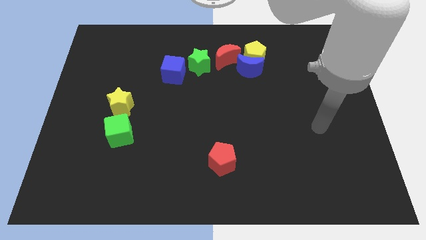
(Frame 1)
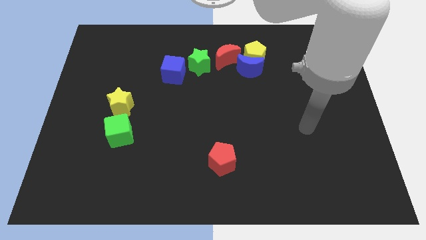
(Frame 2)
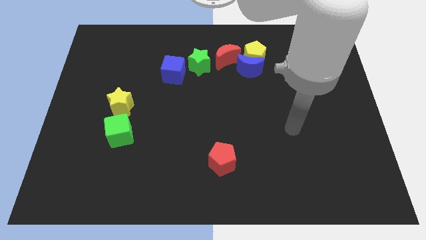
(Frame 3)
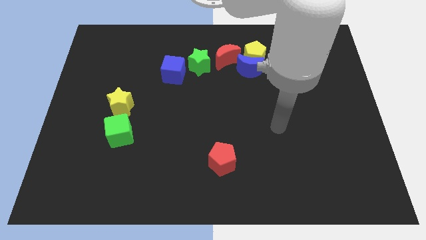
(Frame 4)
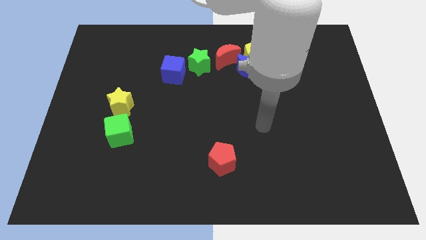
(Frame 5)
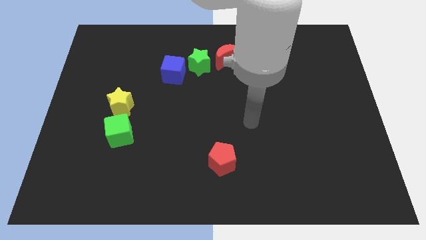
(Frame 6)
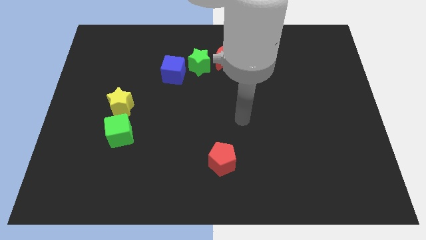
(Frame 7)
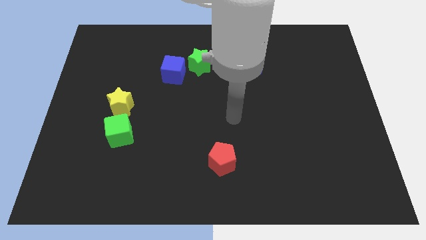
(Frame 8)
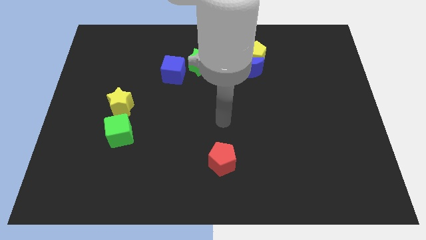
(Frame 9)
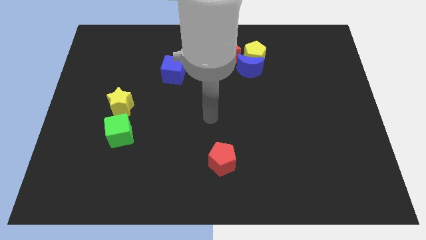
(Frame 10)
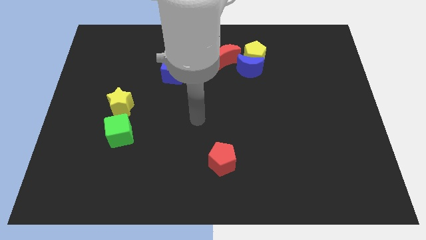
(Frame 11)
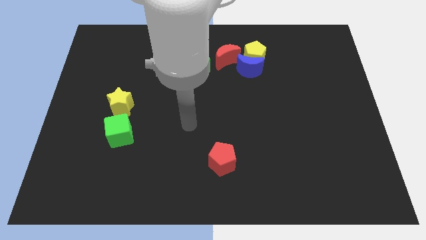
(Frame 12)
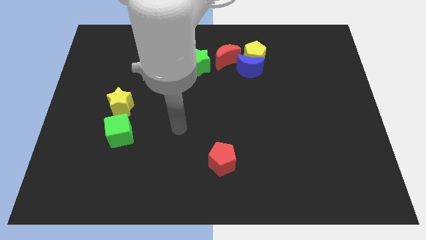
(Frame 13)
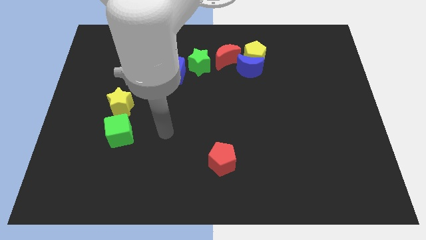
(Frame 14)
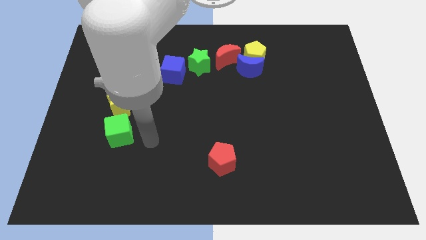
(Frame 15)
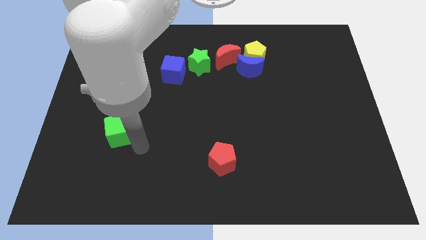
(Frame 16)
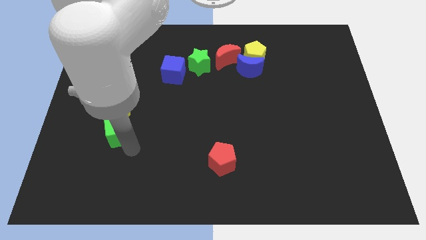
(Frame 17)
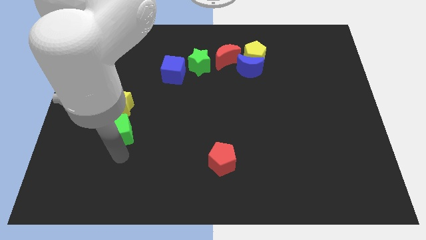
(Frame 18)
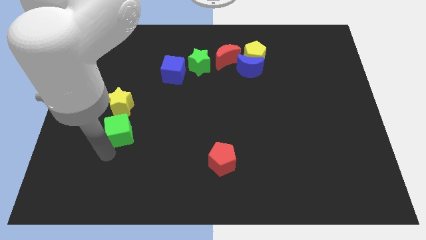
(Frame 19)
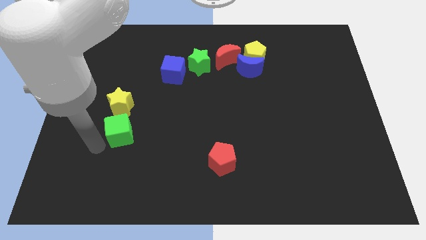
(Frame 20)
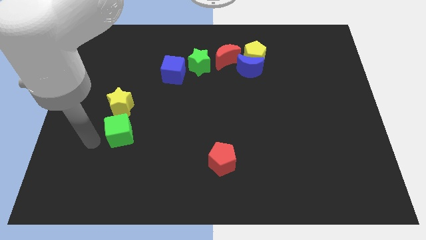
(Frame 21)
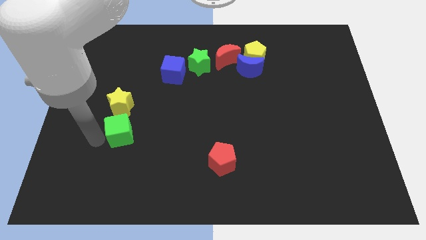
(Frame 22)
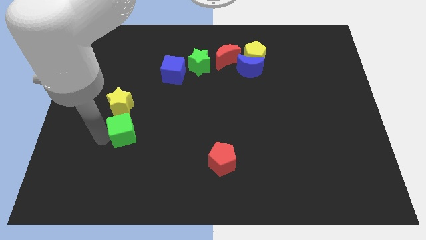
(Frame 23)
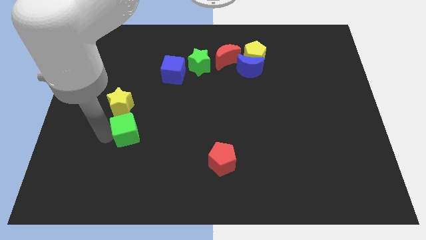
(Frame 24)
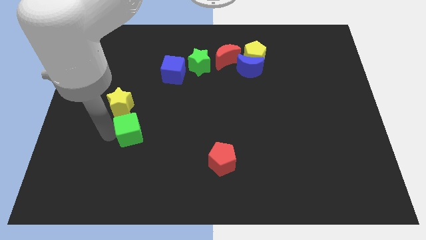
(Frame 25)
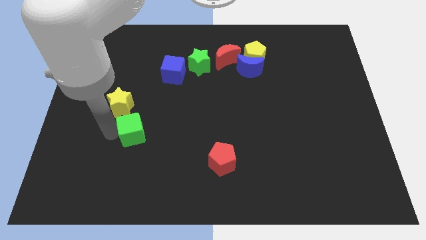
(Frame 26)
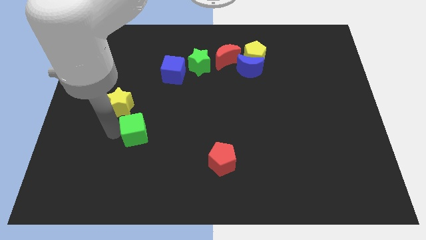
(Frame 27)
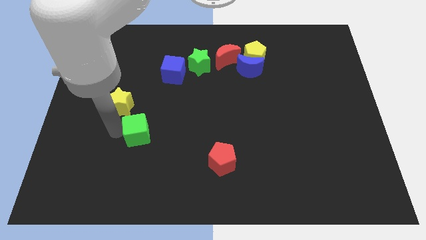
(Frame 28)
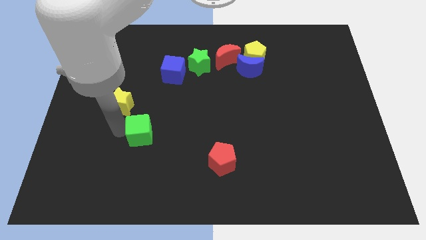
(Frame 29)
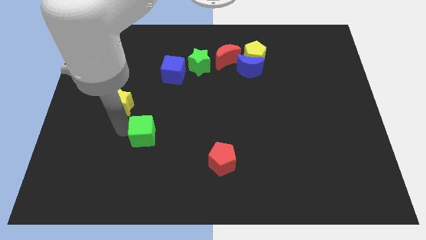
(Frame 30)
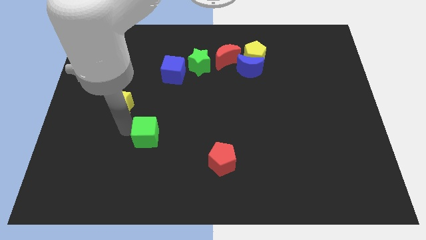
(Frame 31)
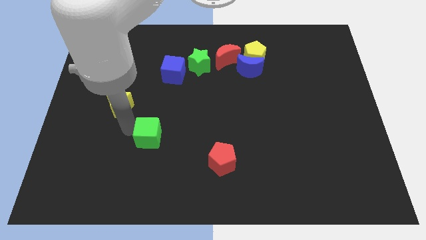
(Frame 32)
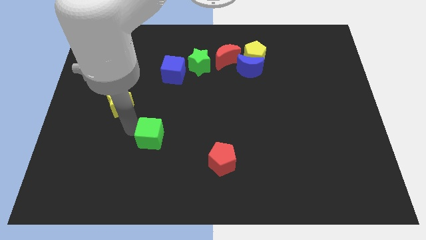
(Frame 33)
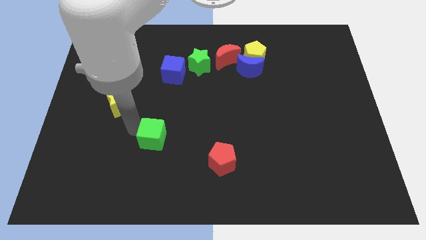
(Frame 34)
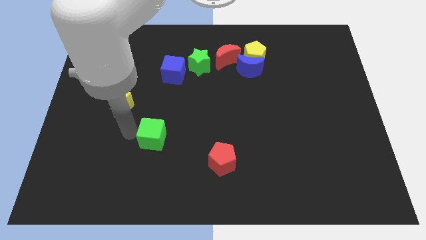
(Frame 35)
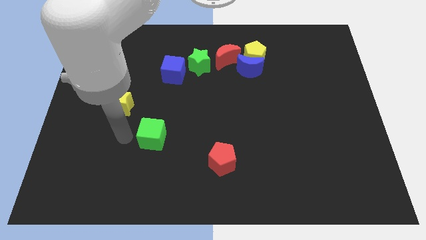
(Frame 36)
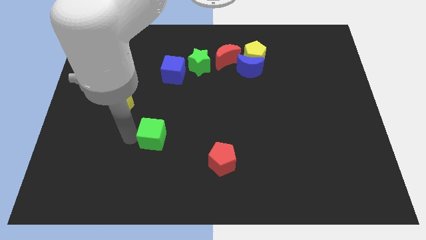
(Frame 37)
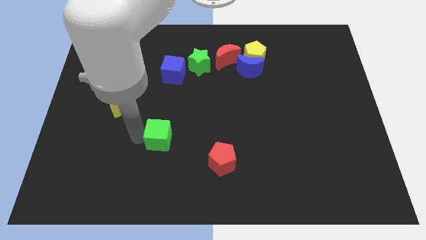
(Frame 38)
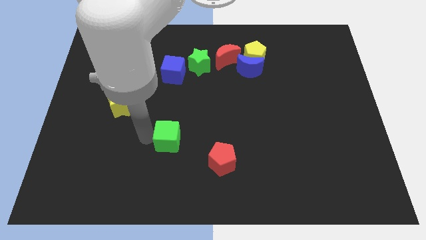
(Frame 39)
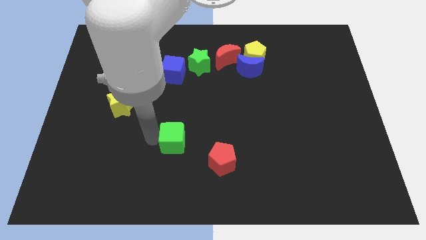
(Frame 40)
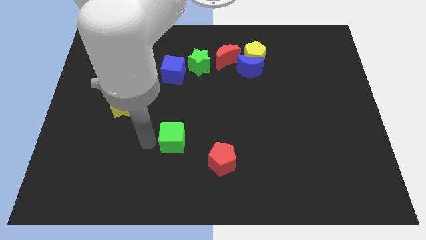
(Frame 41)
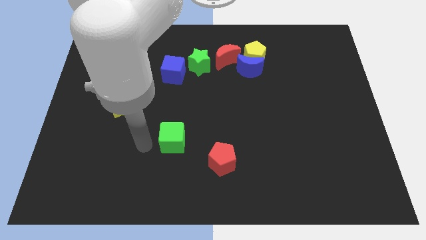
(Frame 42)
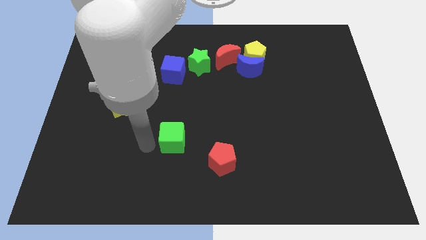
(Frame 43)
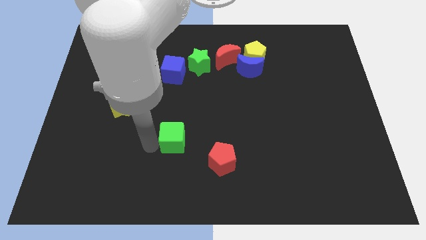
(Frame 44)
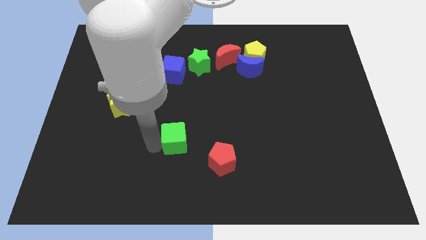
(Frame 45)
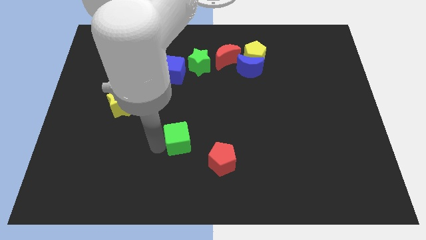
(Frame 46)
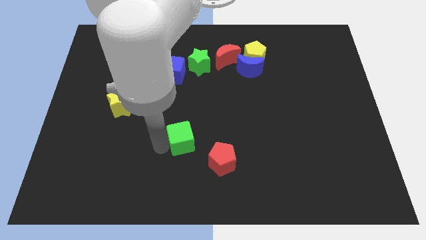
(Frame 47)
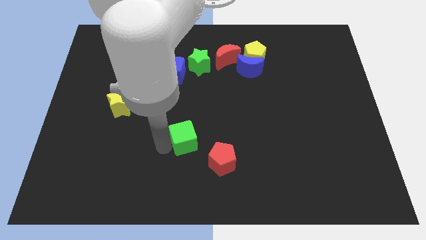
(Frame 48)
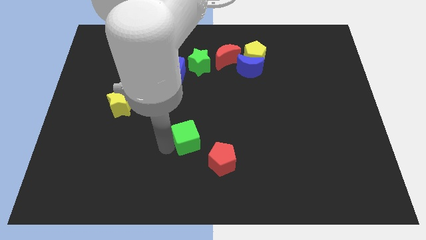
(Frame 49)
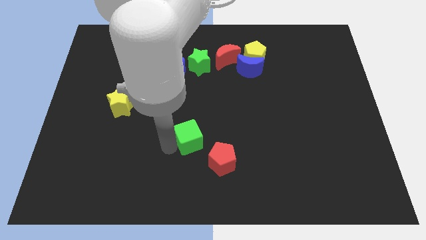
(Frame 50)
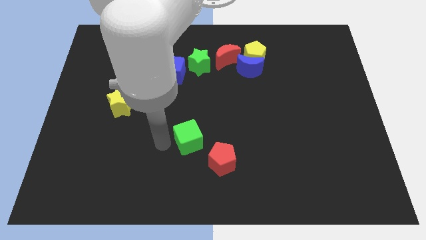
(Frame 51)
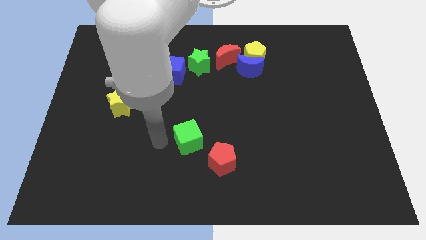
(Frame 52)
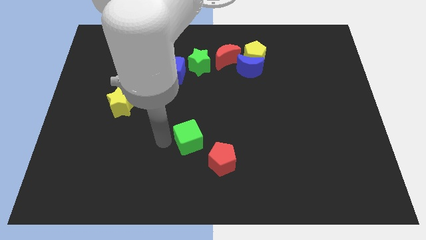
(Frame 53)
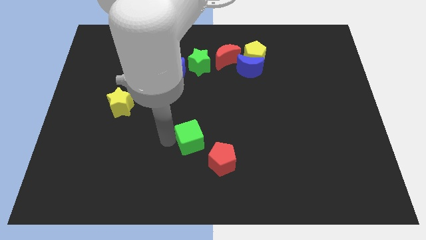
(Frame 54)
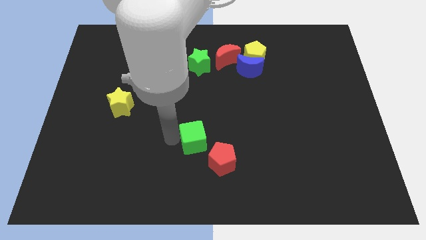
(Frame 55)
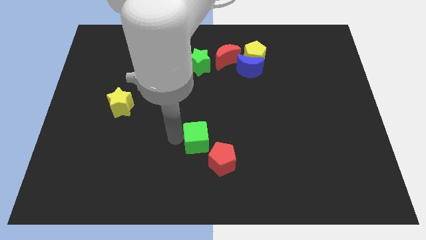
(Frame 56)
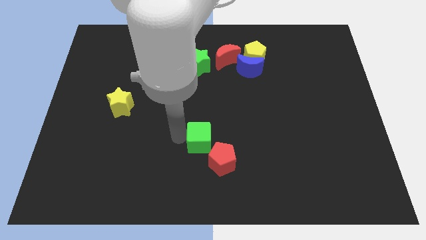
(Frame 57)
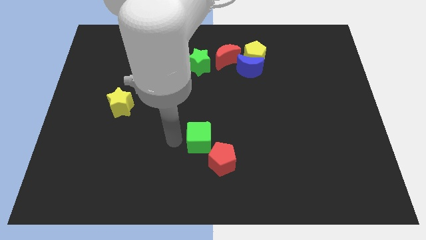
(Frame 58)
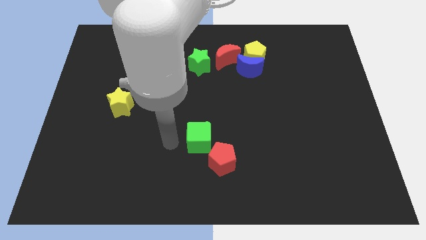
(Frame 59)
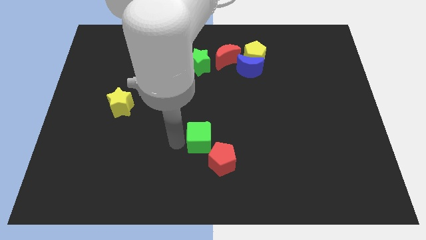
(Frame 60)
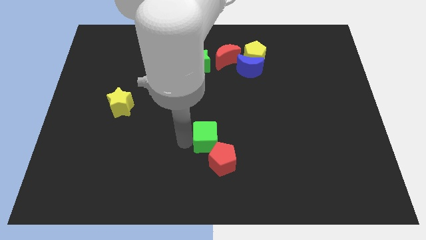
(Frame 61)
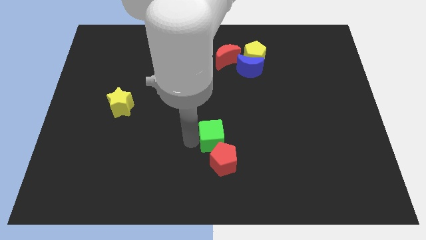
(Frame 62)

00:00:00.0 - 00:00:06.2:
move the green cube to the right

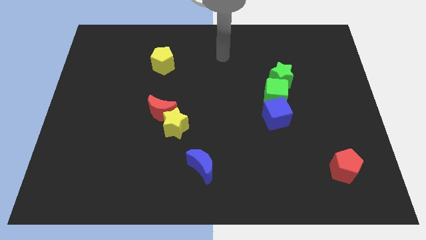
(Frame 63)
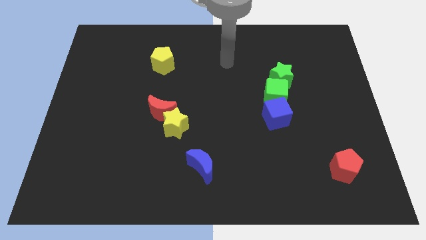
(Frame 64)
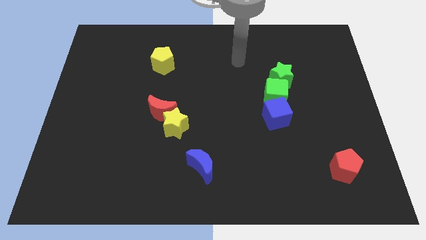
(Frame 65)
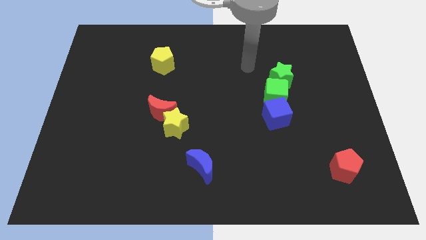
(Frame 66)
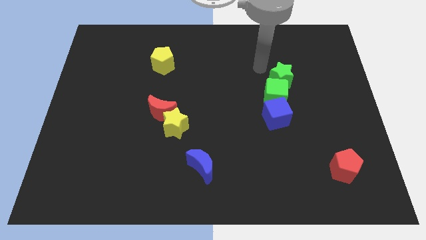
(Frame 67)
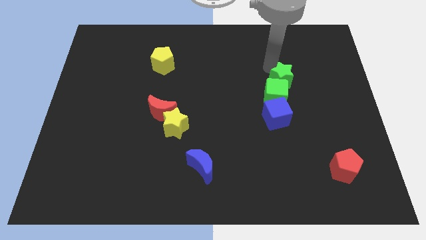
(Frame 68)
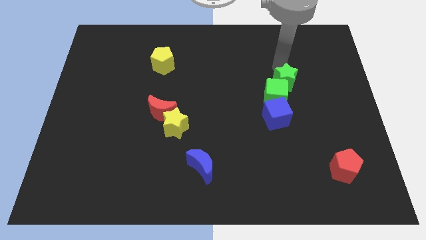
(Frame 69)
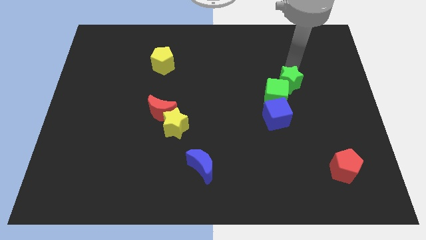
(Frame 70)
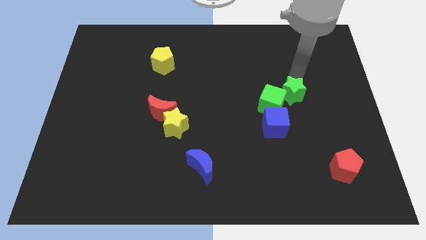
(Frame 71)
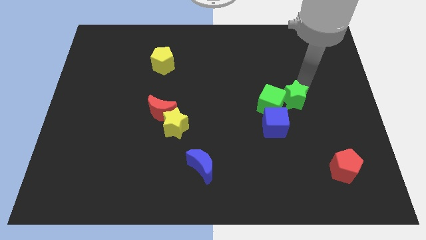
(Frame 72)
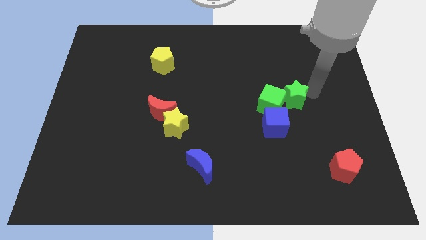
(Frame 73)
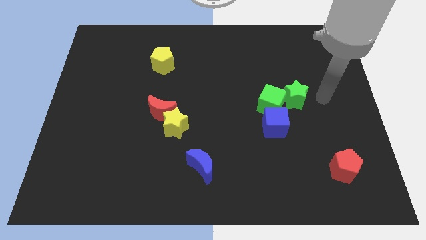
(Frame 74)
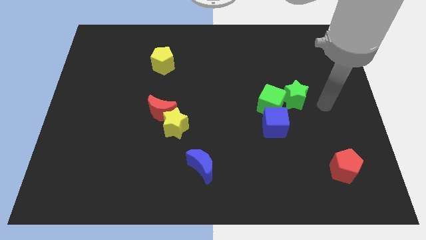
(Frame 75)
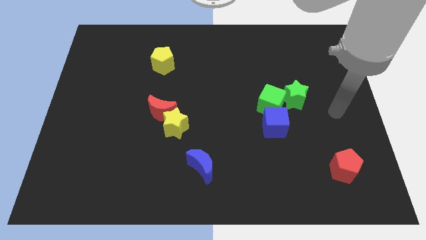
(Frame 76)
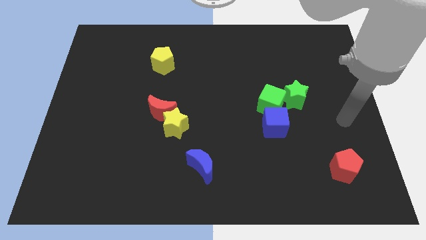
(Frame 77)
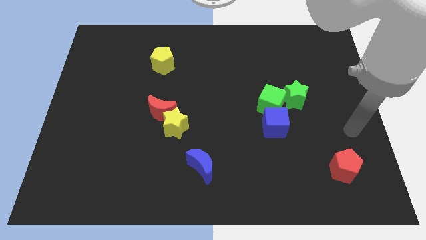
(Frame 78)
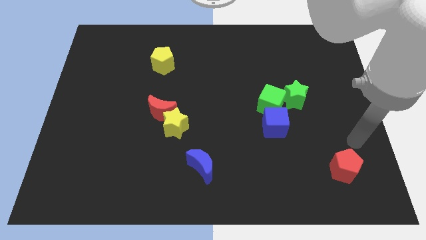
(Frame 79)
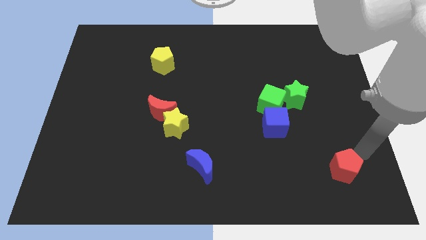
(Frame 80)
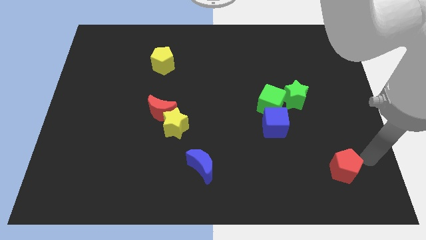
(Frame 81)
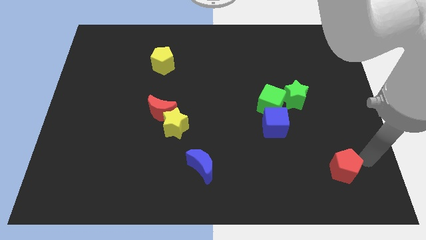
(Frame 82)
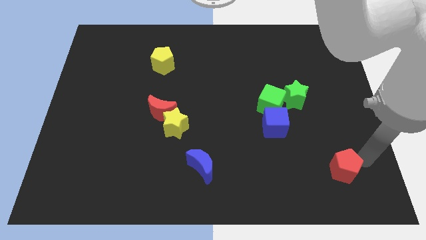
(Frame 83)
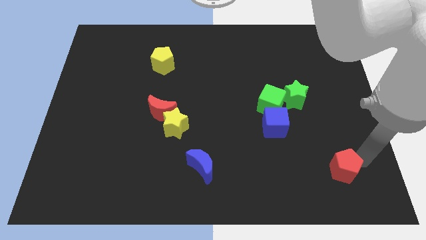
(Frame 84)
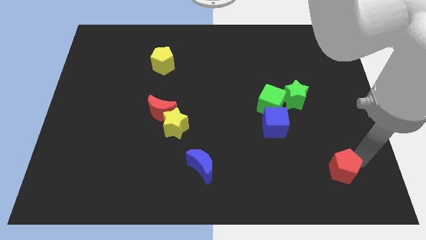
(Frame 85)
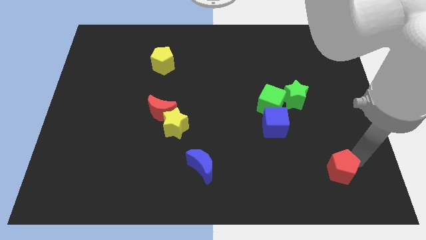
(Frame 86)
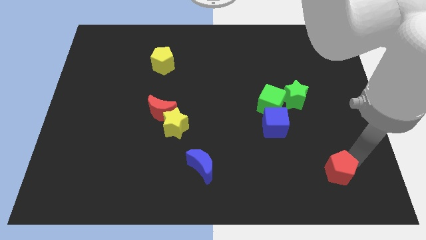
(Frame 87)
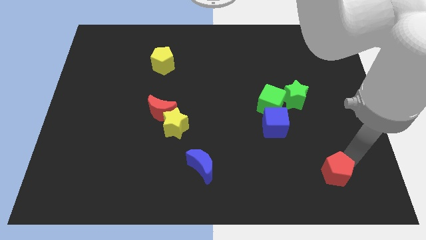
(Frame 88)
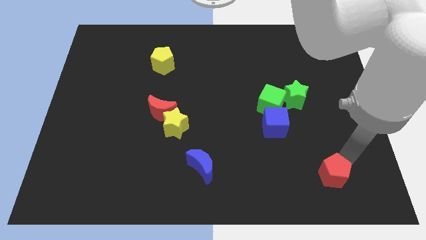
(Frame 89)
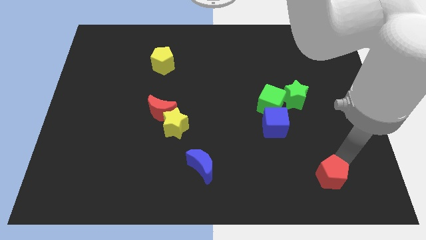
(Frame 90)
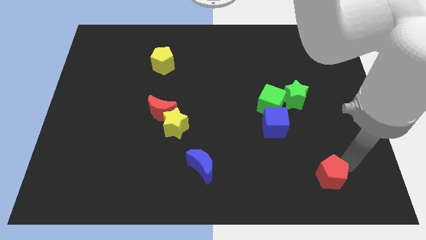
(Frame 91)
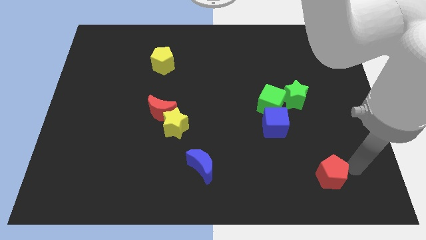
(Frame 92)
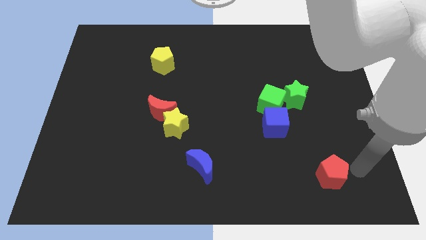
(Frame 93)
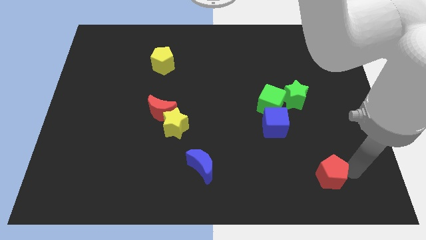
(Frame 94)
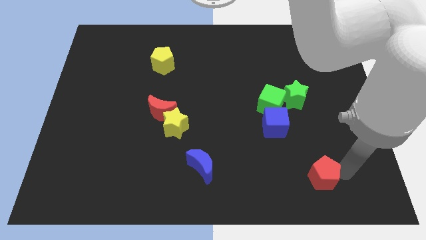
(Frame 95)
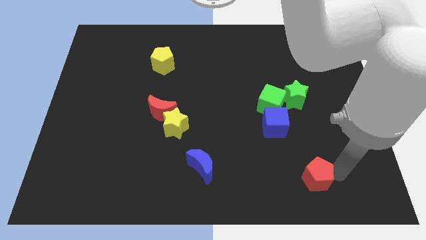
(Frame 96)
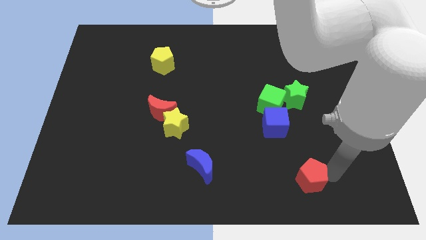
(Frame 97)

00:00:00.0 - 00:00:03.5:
slightly push the red pentagon left
